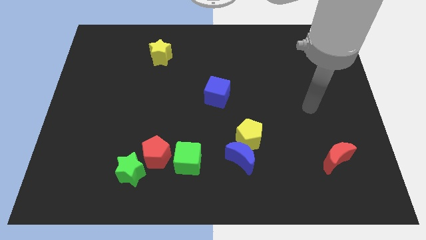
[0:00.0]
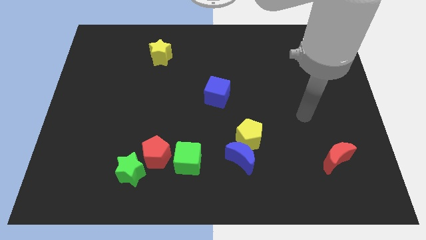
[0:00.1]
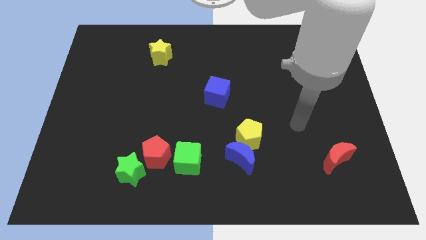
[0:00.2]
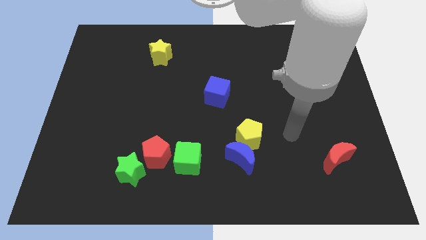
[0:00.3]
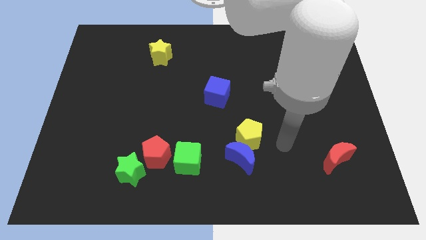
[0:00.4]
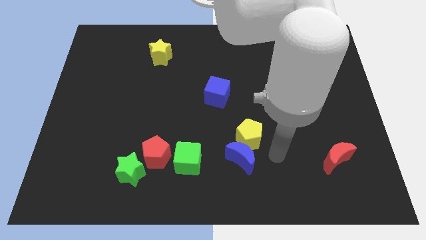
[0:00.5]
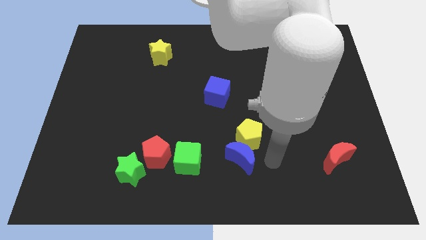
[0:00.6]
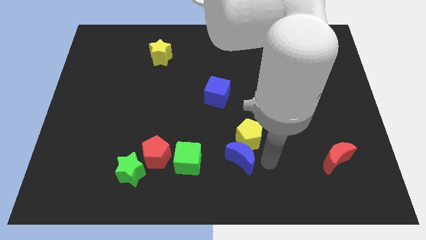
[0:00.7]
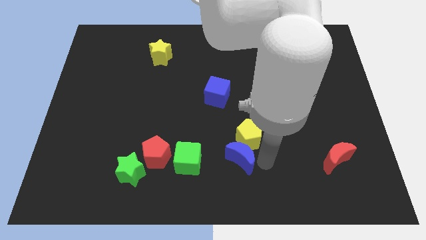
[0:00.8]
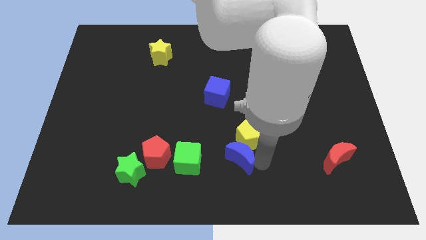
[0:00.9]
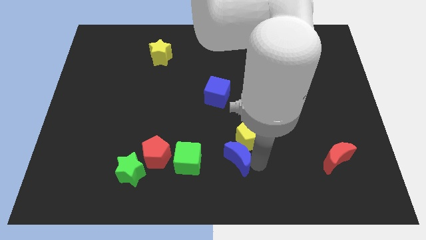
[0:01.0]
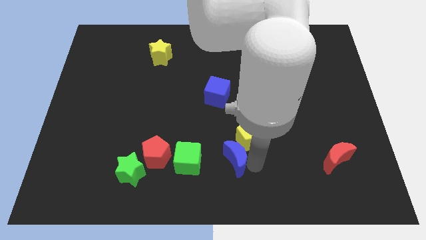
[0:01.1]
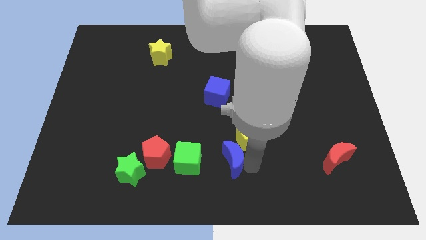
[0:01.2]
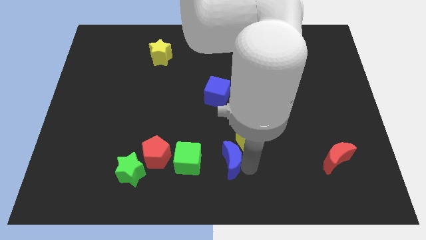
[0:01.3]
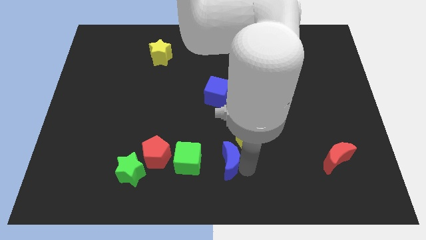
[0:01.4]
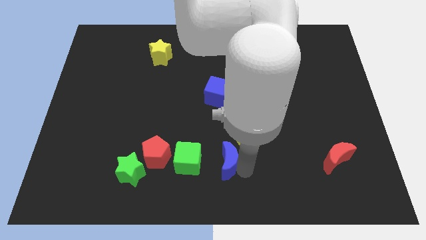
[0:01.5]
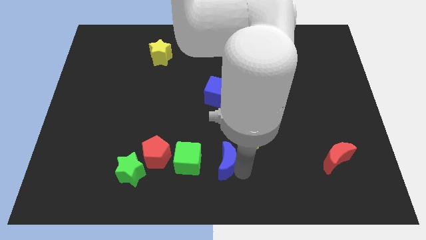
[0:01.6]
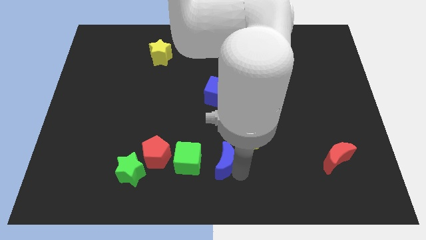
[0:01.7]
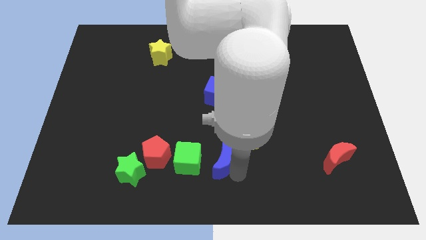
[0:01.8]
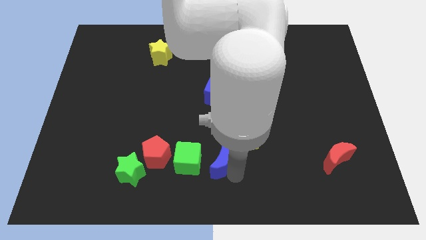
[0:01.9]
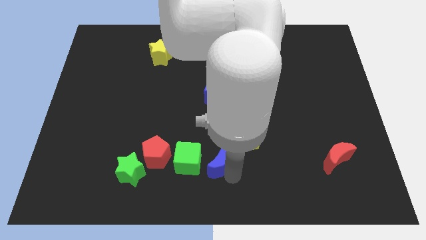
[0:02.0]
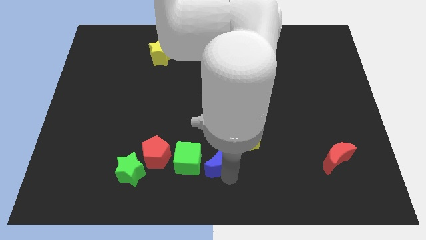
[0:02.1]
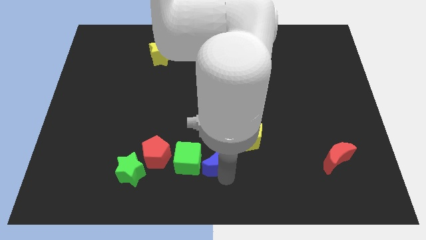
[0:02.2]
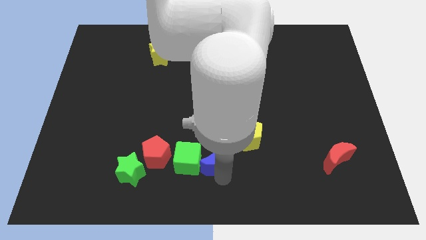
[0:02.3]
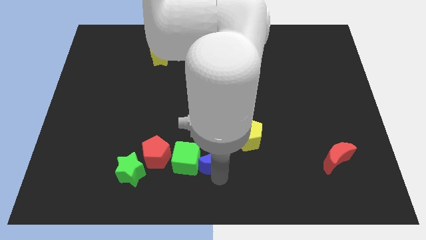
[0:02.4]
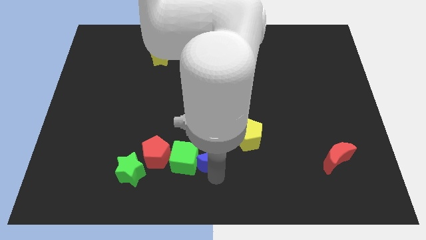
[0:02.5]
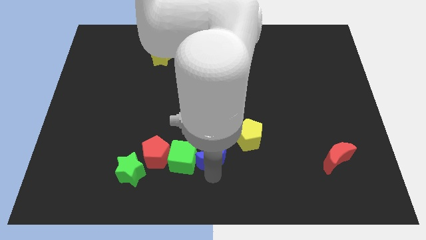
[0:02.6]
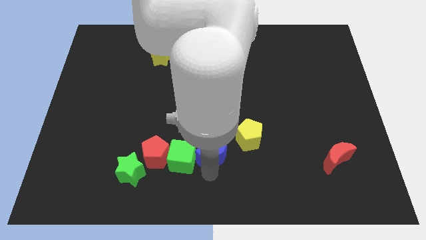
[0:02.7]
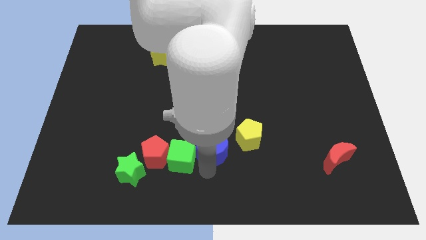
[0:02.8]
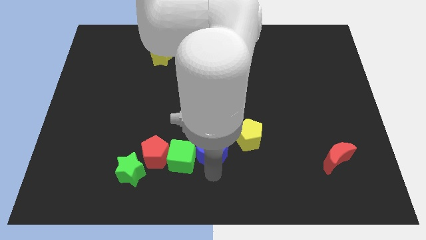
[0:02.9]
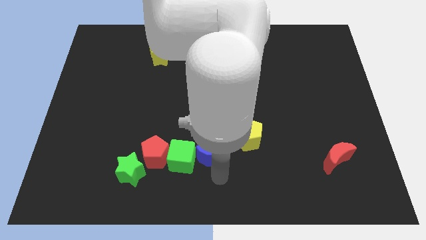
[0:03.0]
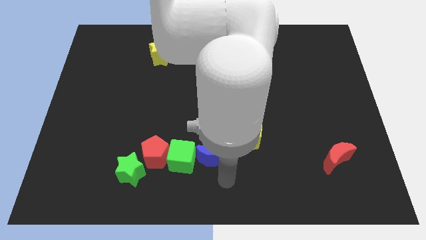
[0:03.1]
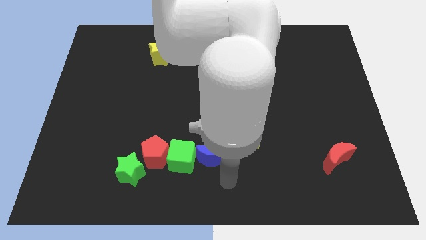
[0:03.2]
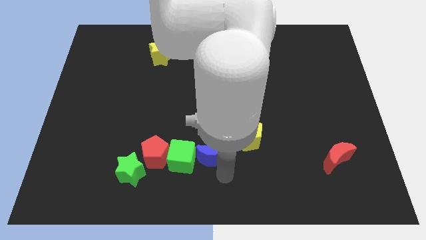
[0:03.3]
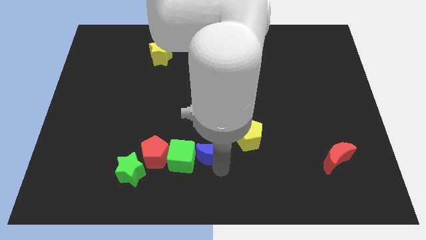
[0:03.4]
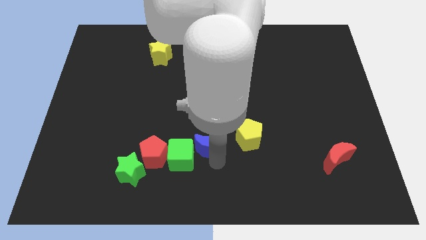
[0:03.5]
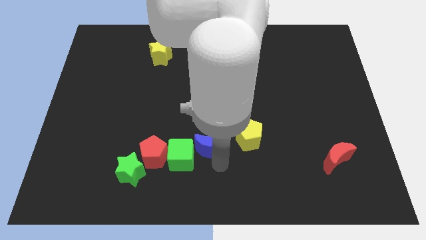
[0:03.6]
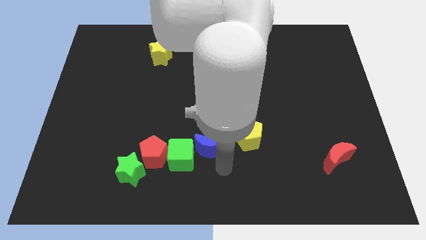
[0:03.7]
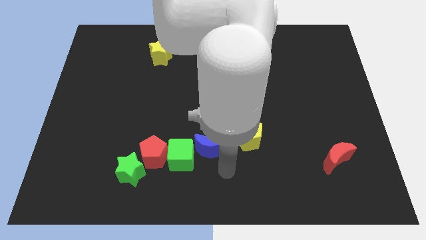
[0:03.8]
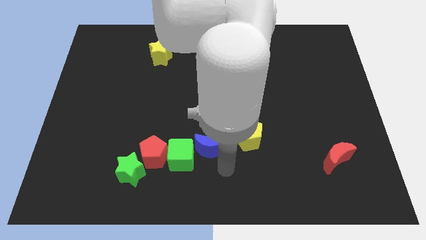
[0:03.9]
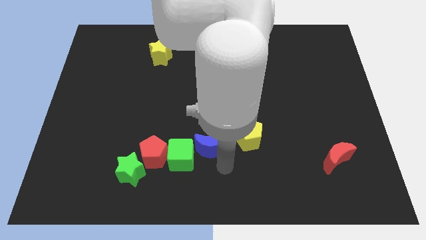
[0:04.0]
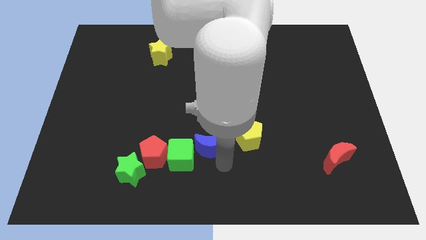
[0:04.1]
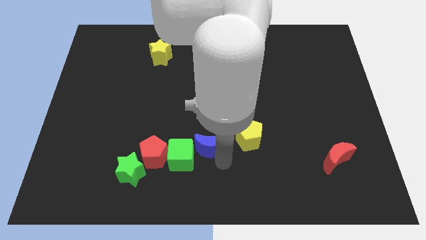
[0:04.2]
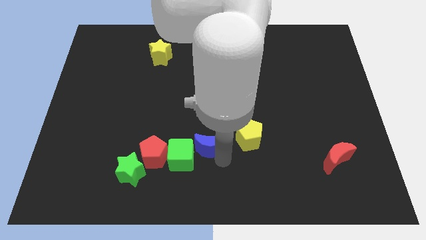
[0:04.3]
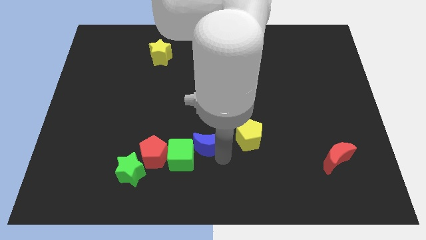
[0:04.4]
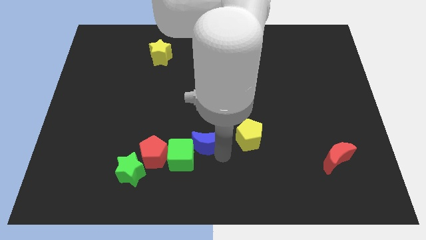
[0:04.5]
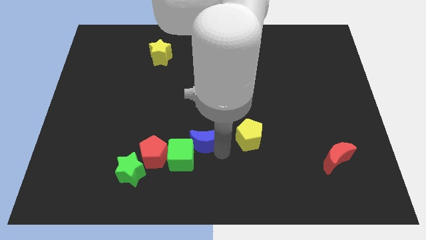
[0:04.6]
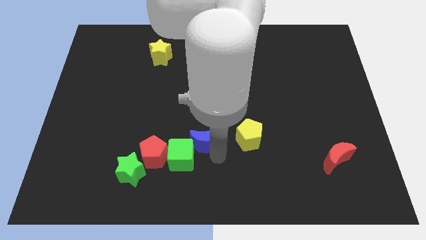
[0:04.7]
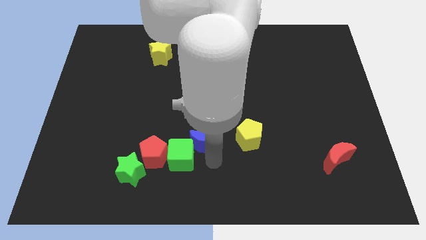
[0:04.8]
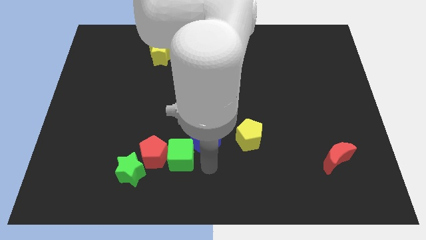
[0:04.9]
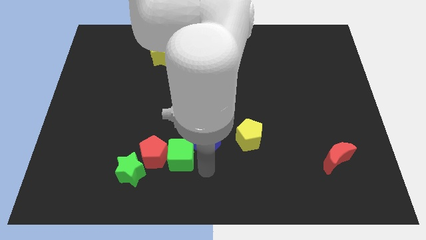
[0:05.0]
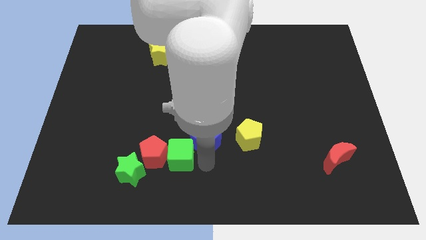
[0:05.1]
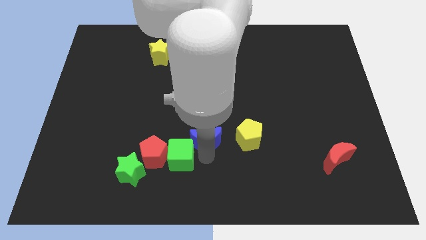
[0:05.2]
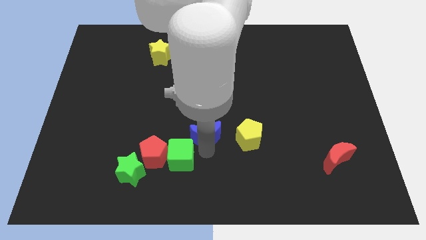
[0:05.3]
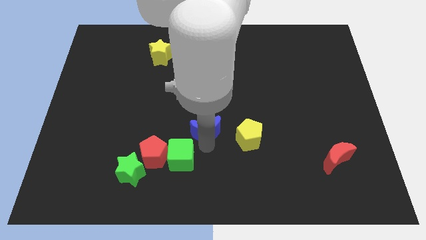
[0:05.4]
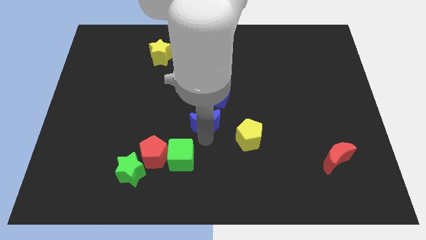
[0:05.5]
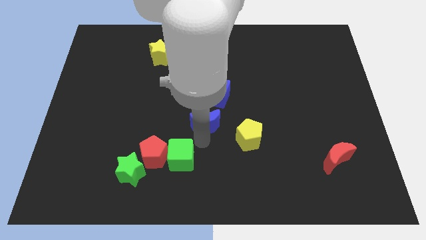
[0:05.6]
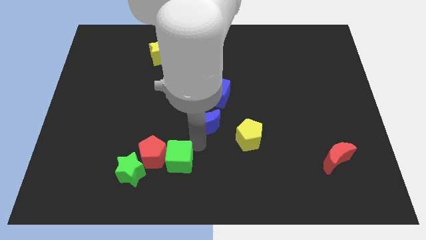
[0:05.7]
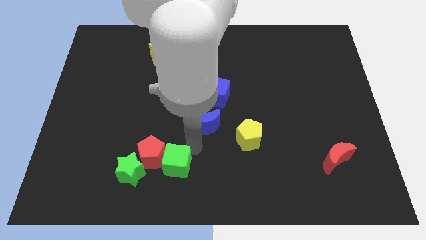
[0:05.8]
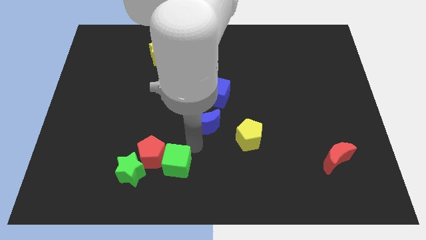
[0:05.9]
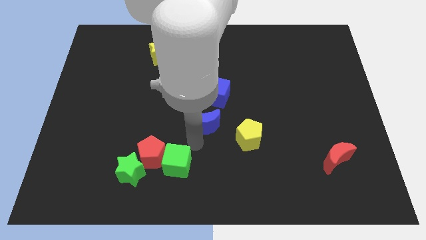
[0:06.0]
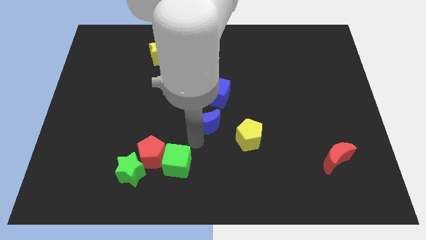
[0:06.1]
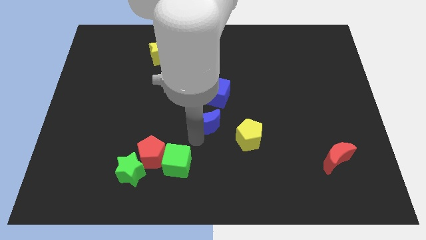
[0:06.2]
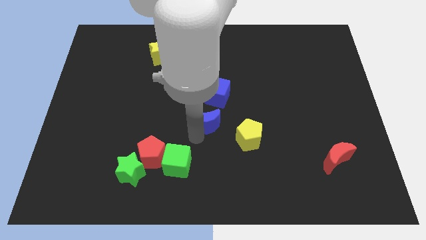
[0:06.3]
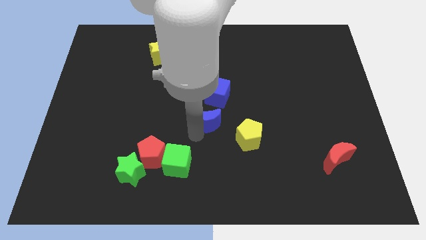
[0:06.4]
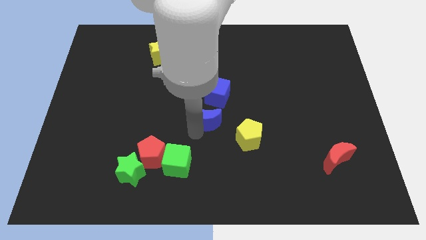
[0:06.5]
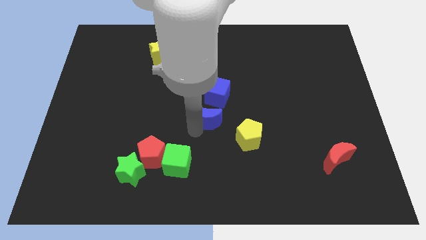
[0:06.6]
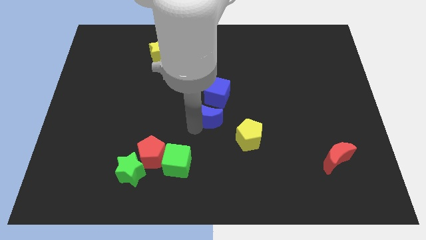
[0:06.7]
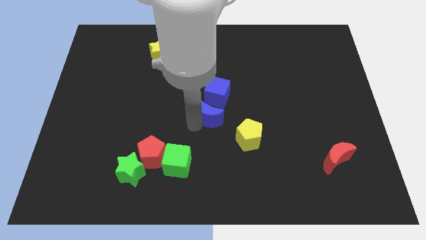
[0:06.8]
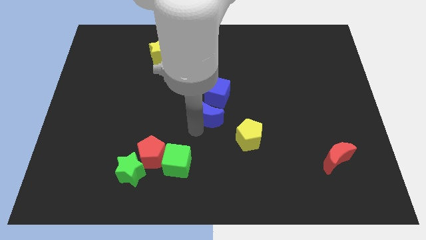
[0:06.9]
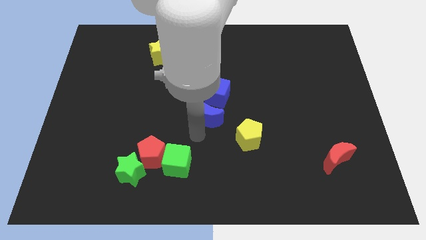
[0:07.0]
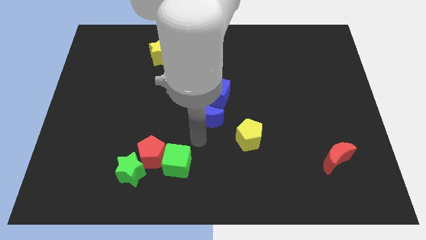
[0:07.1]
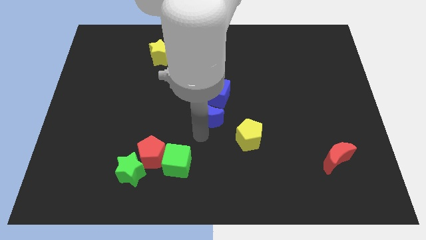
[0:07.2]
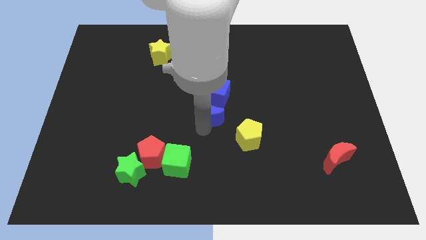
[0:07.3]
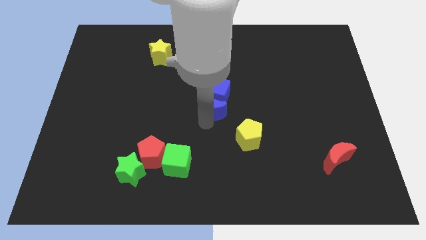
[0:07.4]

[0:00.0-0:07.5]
move the blue moon to the blue cube
